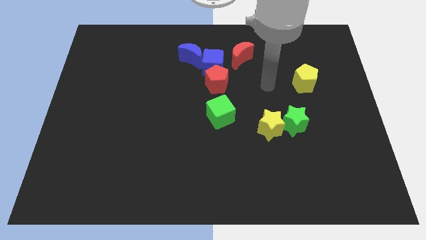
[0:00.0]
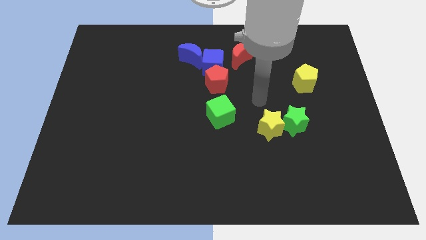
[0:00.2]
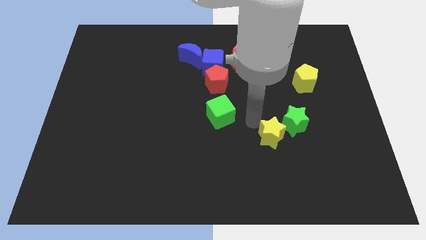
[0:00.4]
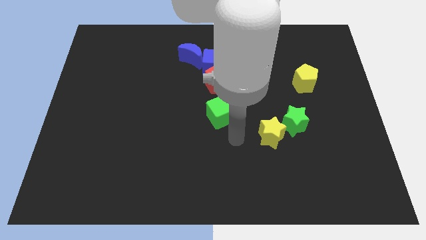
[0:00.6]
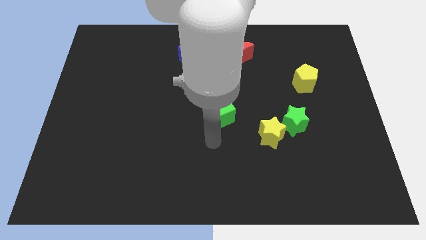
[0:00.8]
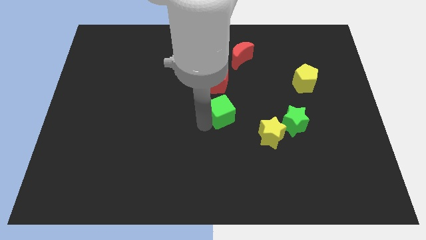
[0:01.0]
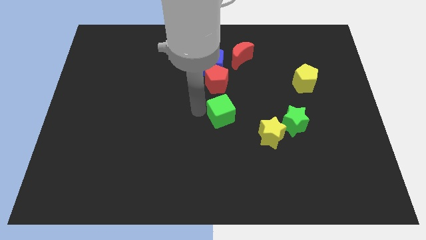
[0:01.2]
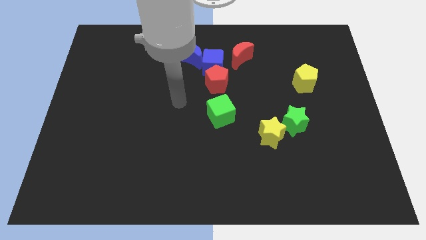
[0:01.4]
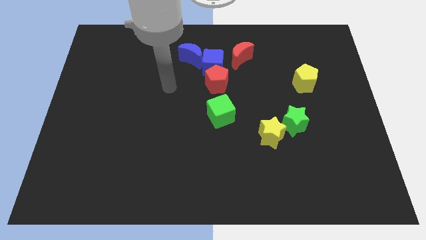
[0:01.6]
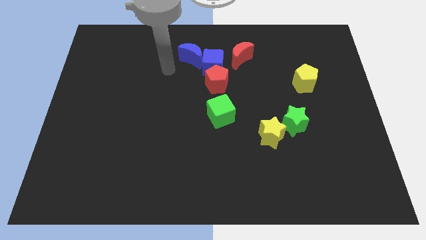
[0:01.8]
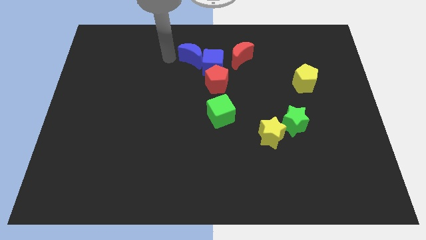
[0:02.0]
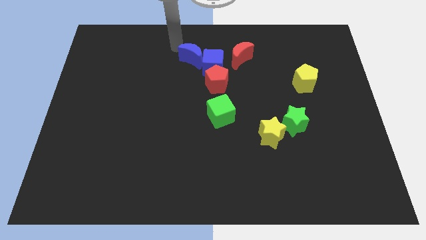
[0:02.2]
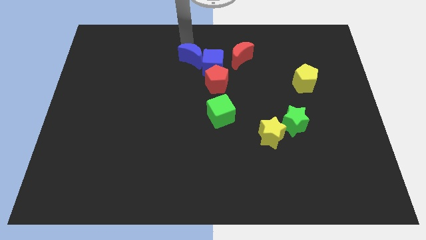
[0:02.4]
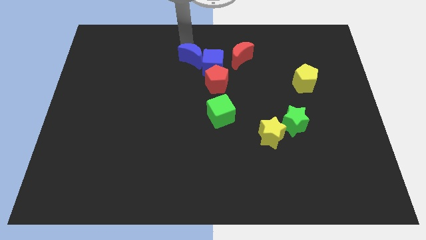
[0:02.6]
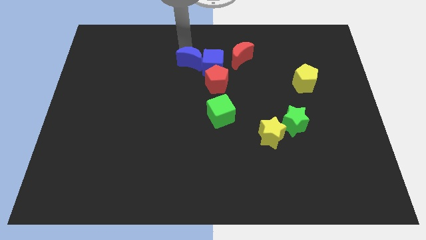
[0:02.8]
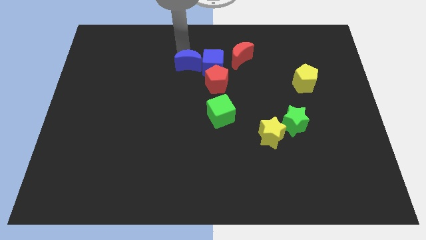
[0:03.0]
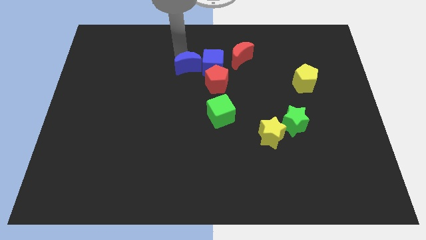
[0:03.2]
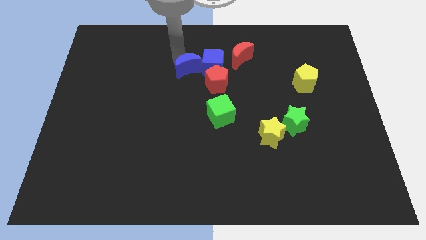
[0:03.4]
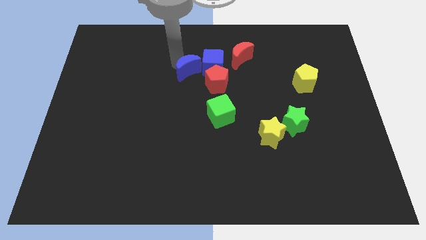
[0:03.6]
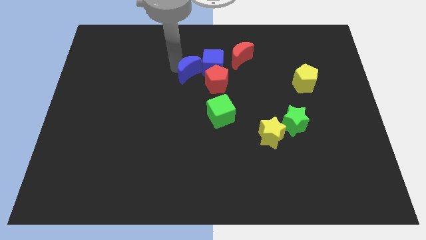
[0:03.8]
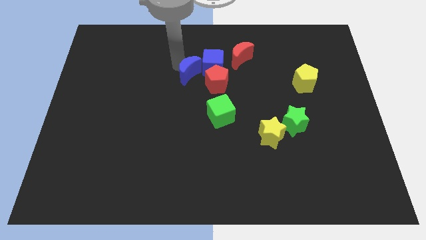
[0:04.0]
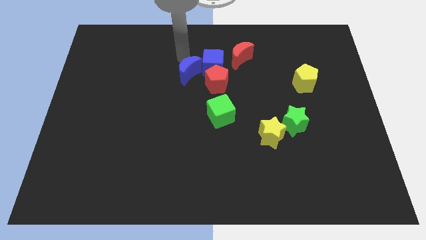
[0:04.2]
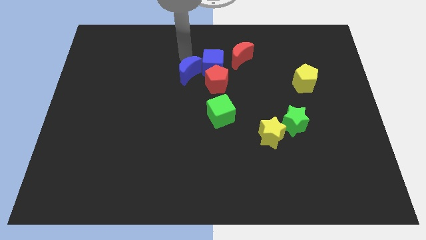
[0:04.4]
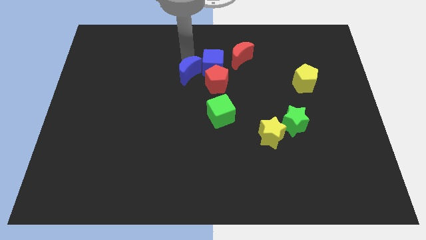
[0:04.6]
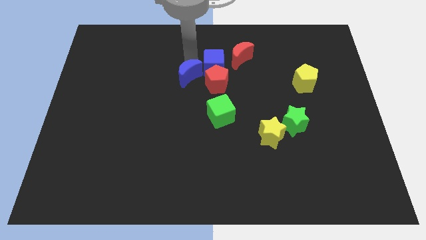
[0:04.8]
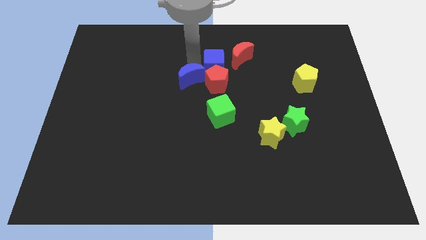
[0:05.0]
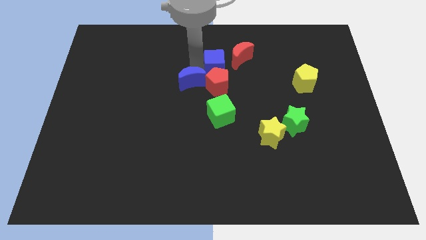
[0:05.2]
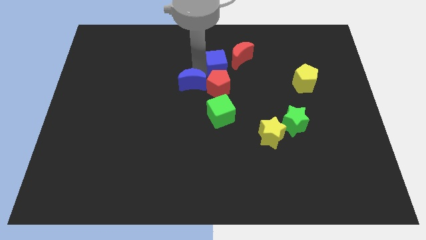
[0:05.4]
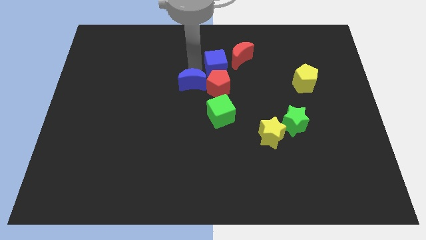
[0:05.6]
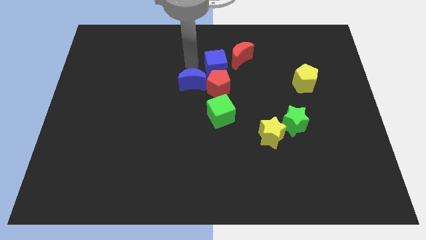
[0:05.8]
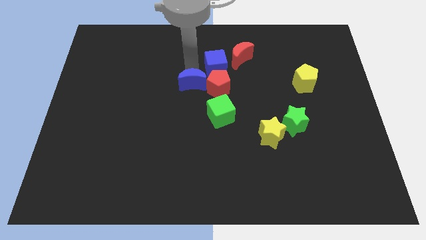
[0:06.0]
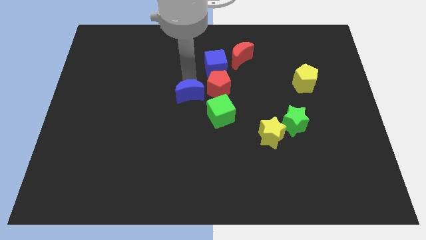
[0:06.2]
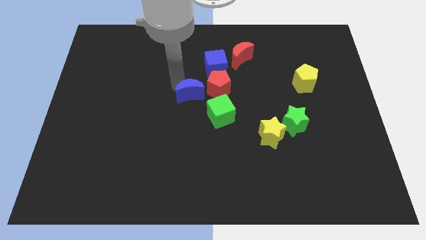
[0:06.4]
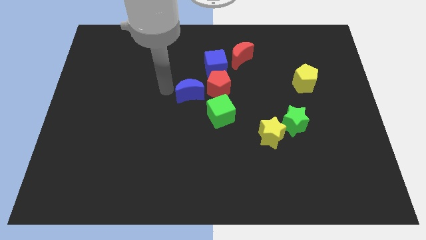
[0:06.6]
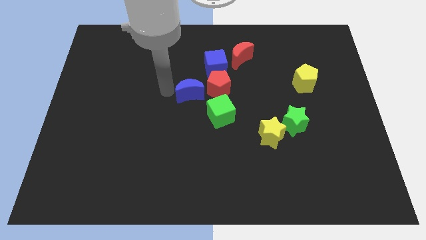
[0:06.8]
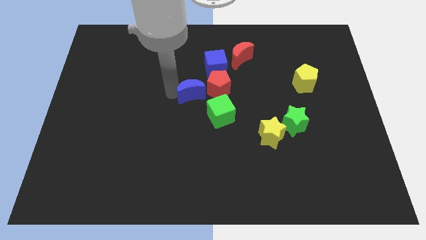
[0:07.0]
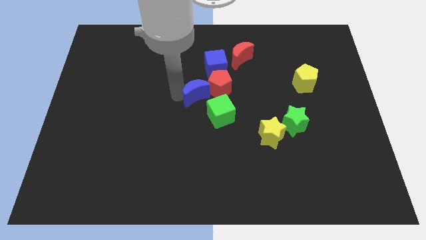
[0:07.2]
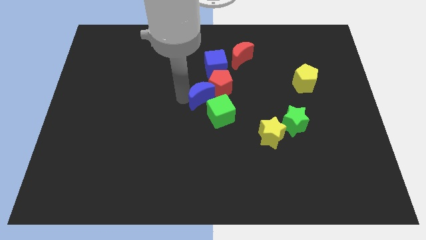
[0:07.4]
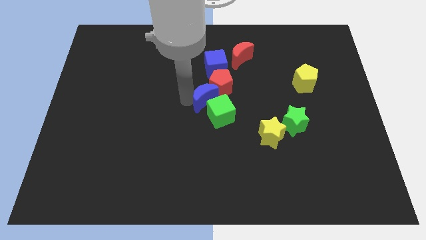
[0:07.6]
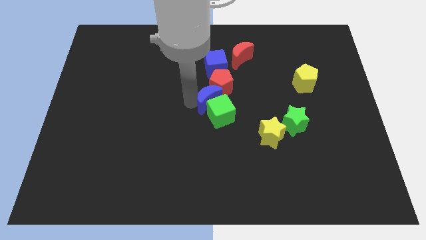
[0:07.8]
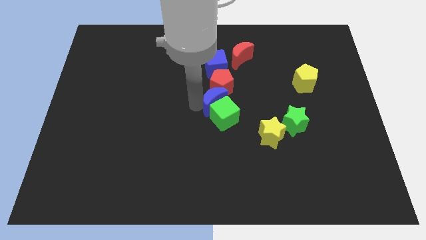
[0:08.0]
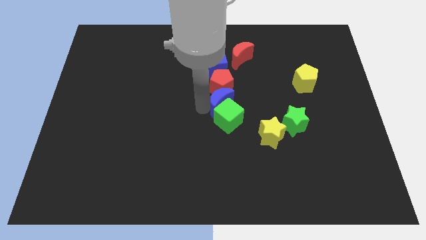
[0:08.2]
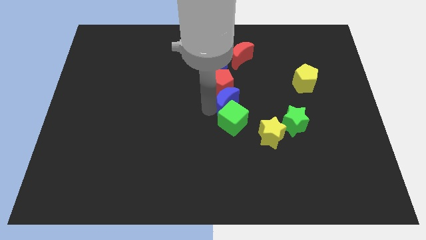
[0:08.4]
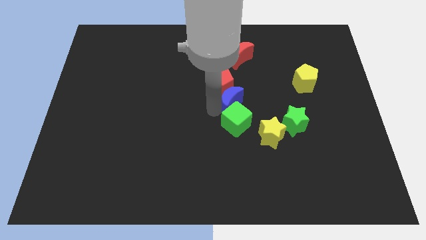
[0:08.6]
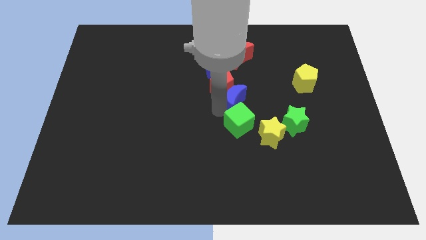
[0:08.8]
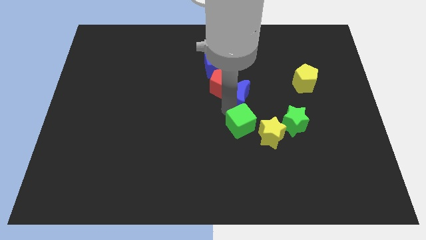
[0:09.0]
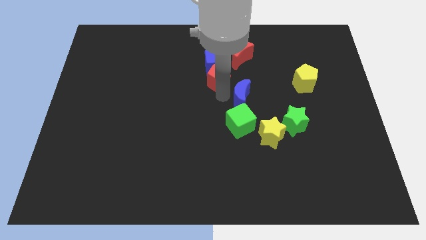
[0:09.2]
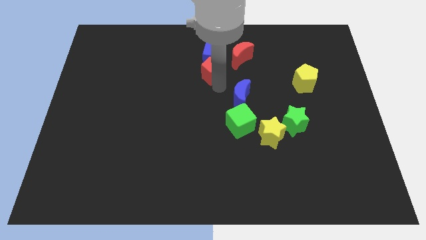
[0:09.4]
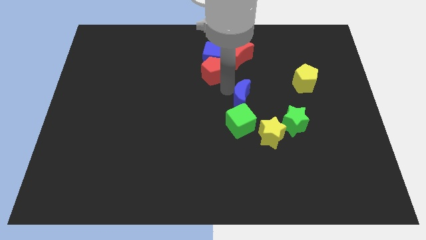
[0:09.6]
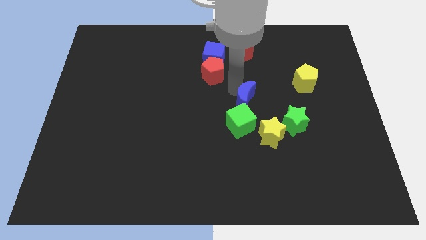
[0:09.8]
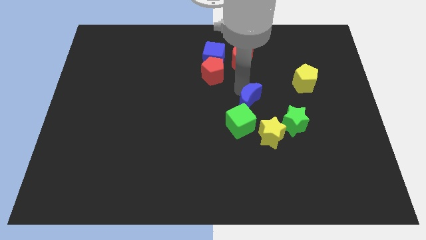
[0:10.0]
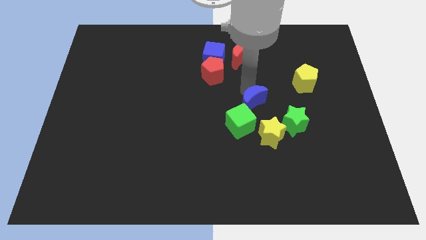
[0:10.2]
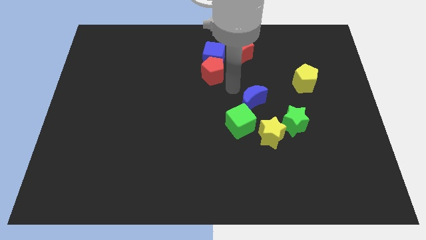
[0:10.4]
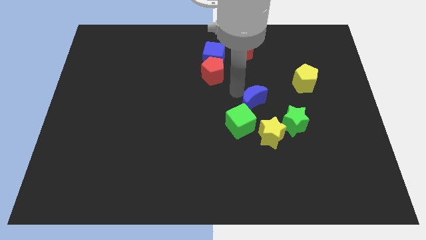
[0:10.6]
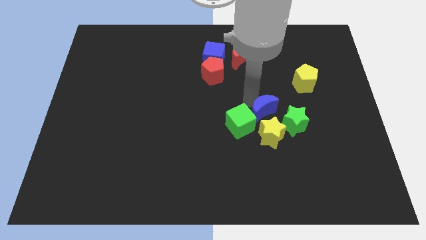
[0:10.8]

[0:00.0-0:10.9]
move the blue moon just right of the green cube

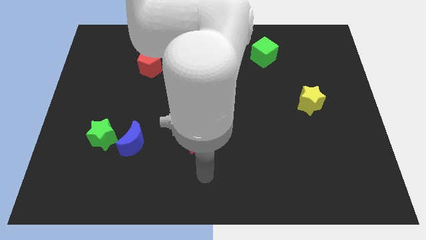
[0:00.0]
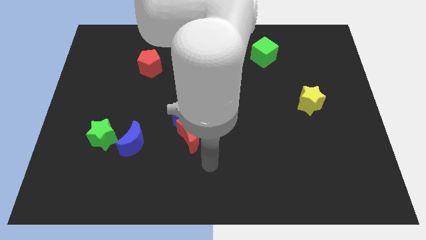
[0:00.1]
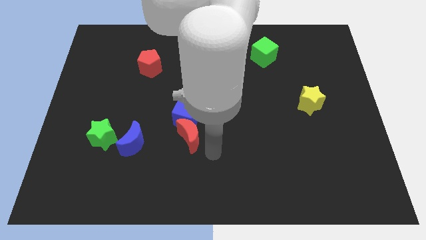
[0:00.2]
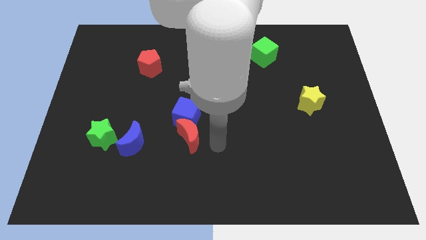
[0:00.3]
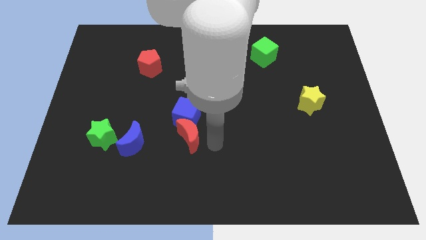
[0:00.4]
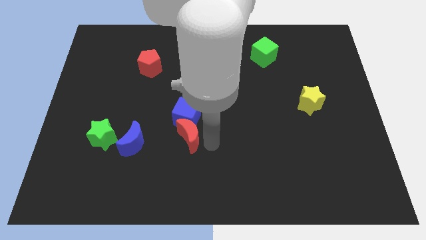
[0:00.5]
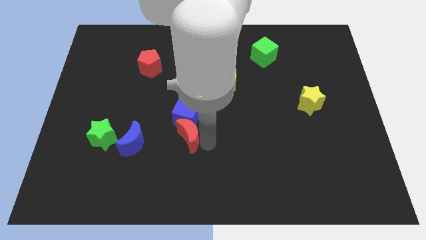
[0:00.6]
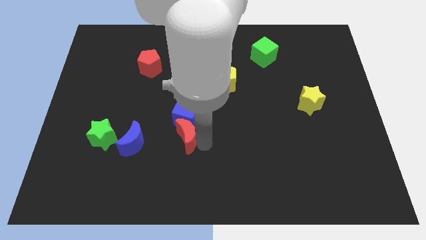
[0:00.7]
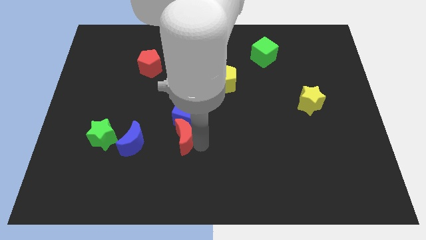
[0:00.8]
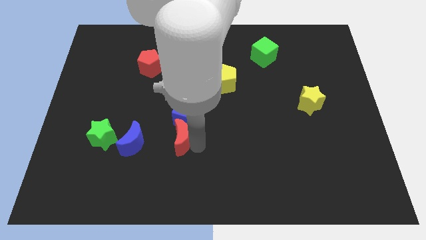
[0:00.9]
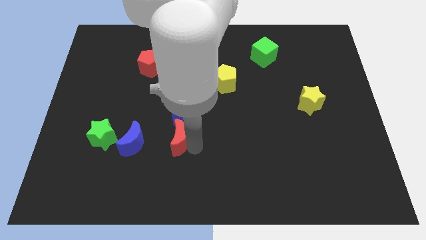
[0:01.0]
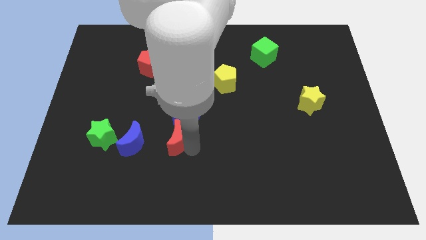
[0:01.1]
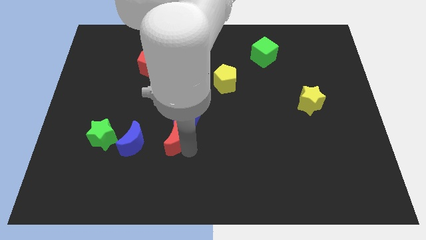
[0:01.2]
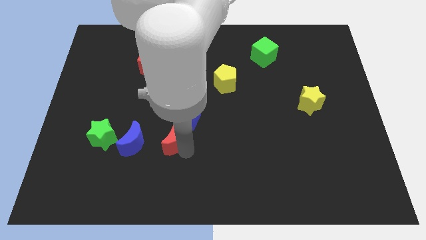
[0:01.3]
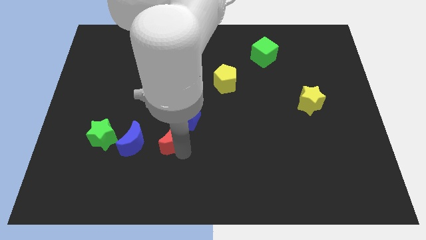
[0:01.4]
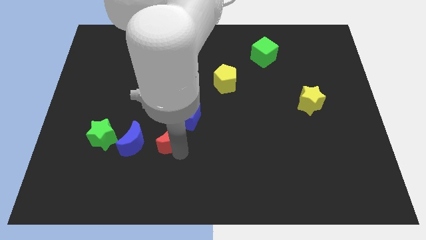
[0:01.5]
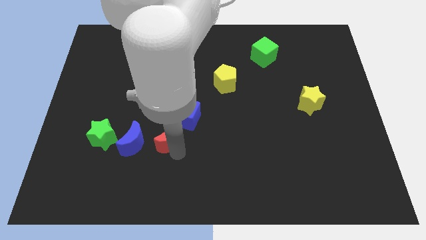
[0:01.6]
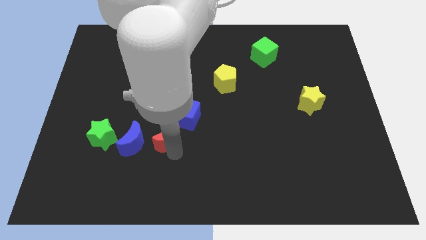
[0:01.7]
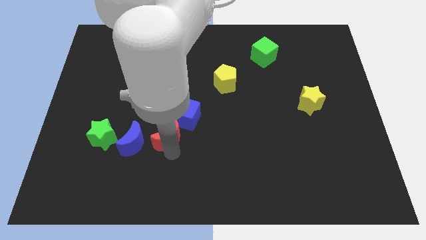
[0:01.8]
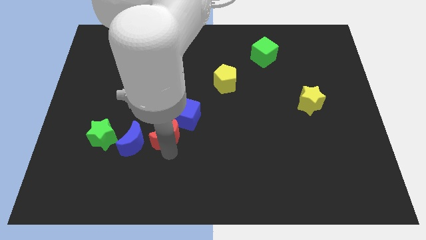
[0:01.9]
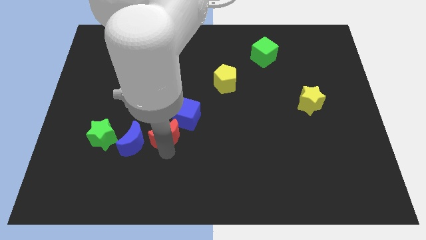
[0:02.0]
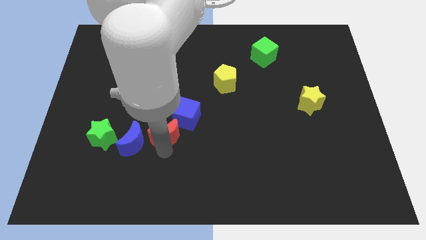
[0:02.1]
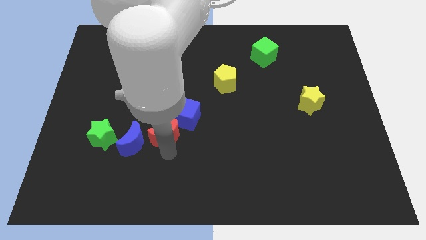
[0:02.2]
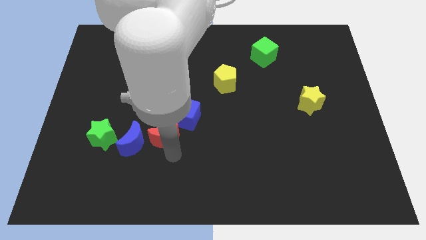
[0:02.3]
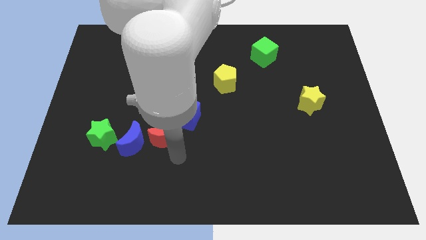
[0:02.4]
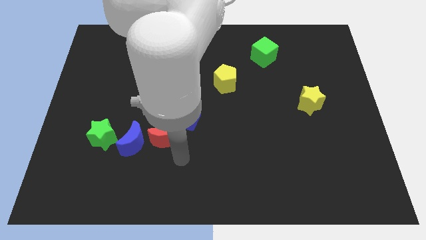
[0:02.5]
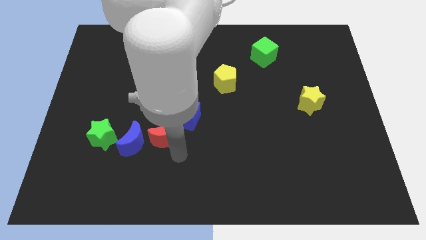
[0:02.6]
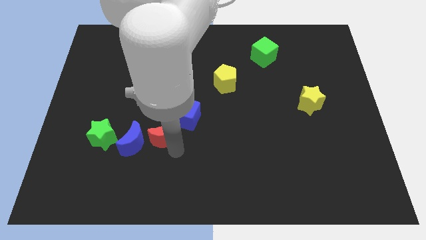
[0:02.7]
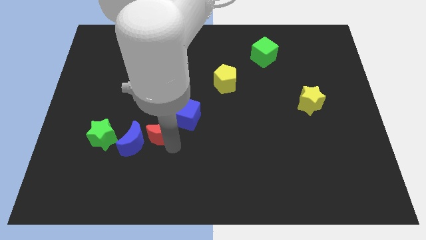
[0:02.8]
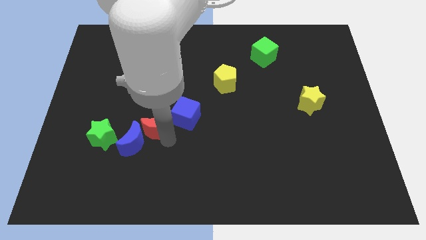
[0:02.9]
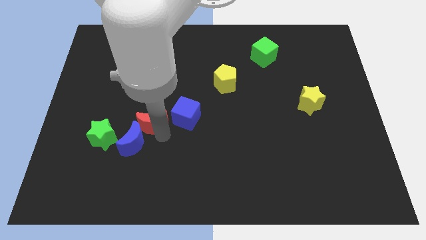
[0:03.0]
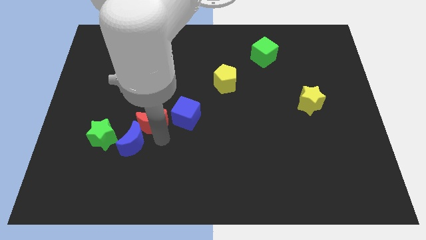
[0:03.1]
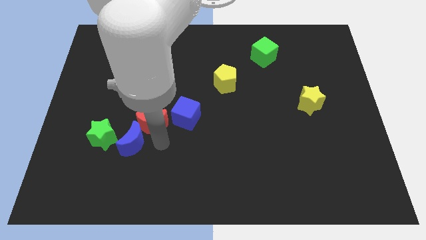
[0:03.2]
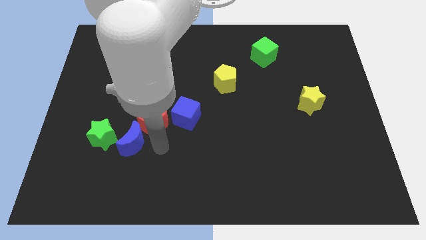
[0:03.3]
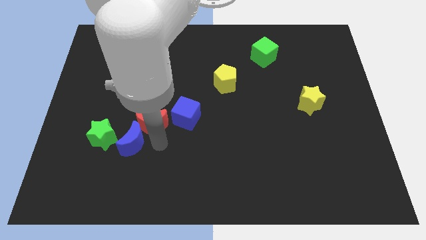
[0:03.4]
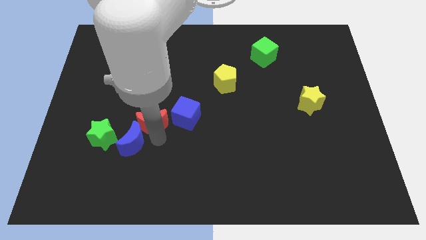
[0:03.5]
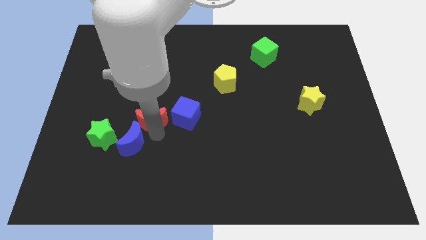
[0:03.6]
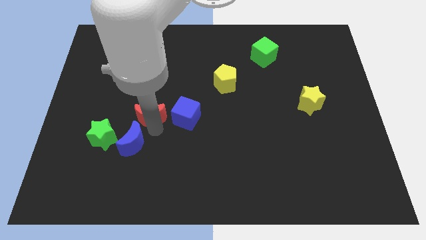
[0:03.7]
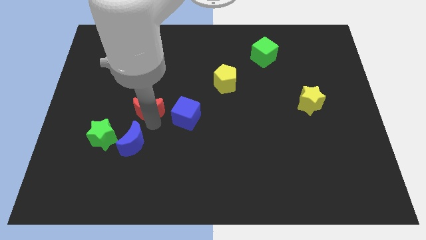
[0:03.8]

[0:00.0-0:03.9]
move the red moon to the bottom side of the red pentagon
